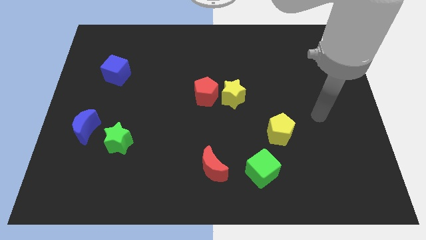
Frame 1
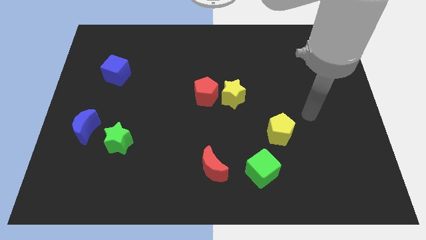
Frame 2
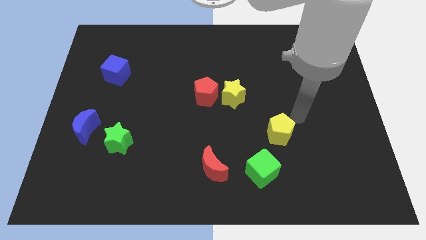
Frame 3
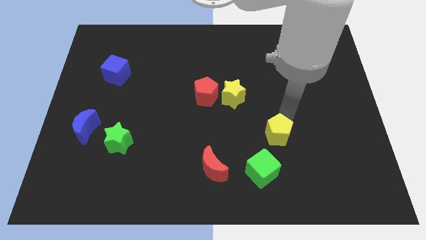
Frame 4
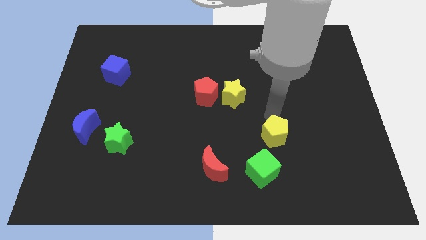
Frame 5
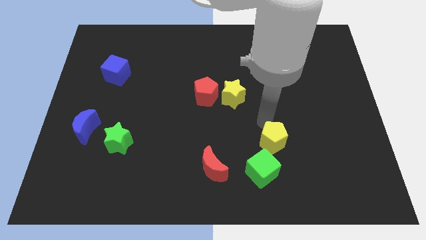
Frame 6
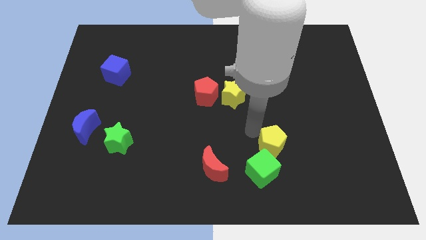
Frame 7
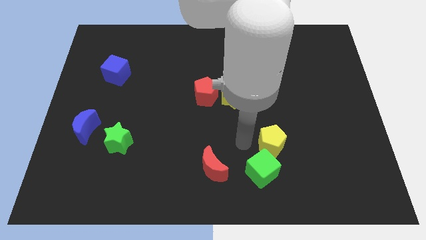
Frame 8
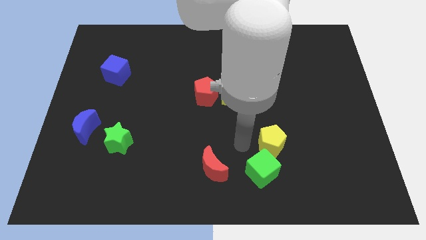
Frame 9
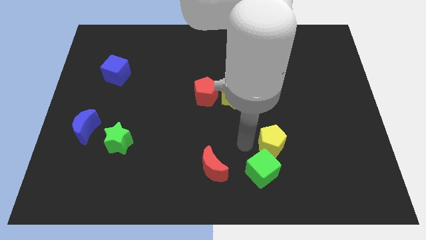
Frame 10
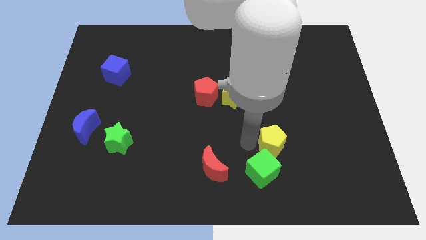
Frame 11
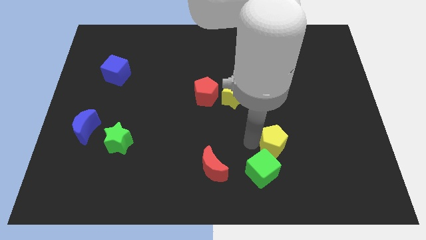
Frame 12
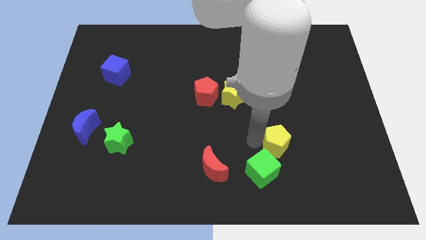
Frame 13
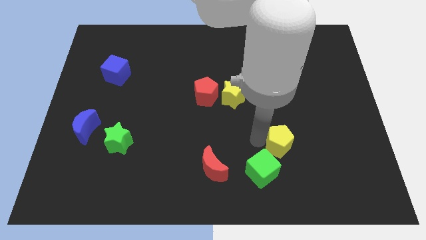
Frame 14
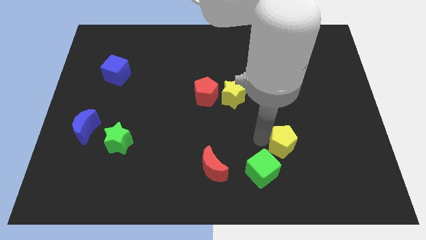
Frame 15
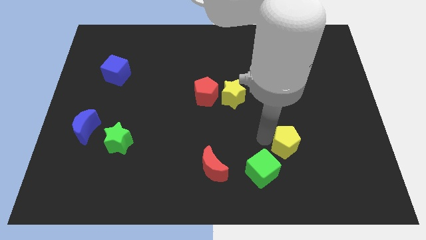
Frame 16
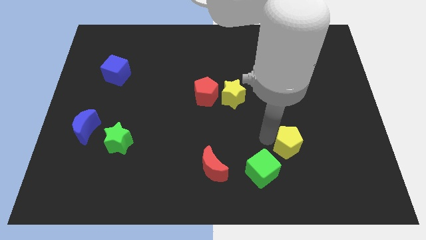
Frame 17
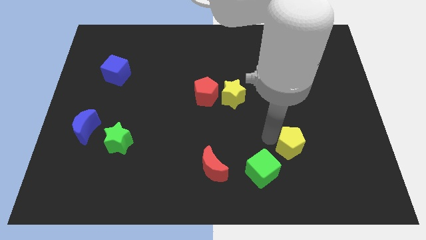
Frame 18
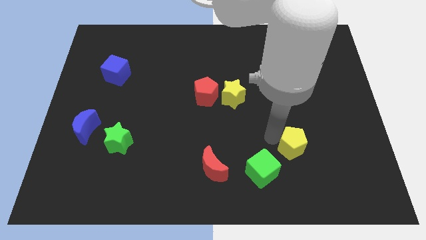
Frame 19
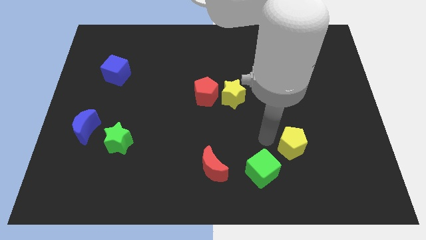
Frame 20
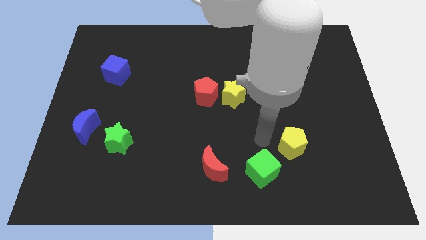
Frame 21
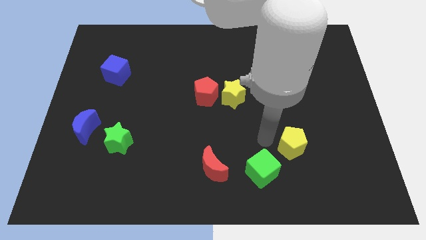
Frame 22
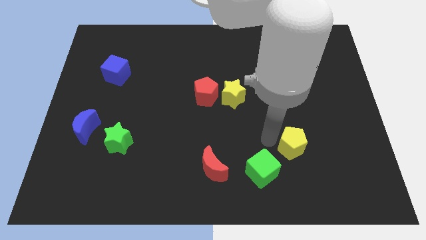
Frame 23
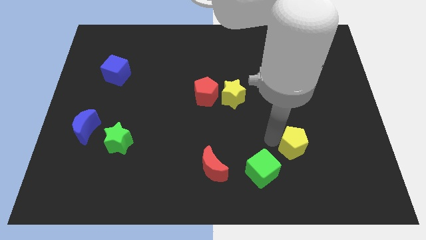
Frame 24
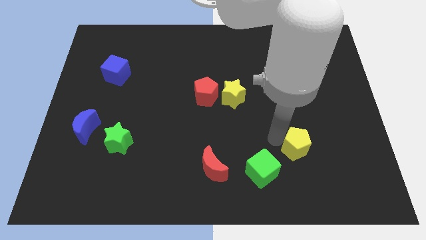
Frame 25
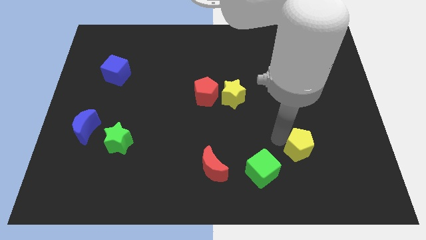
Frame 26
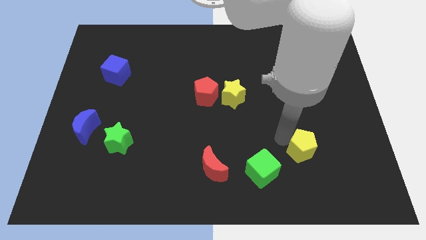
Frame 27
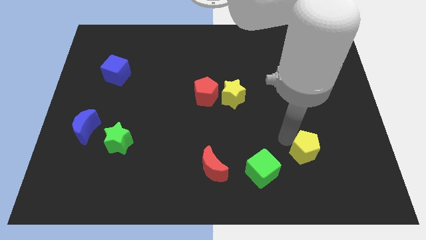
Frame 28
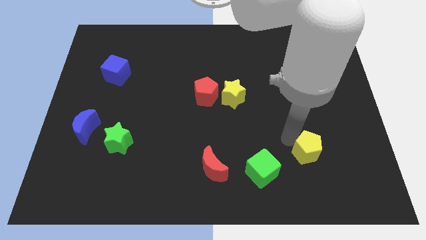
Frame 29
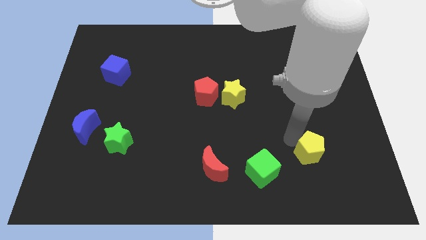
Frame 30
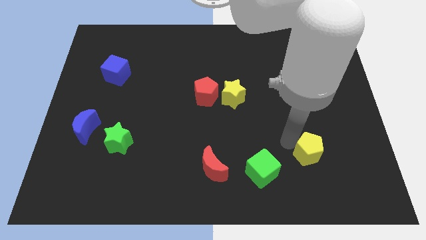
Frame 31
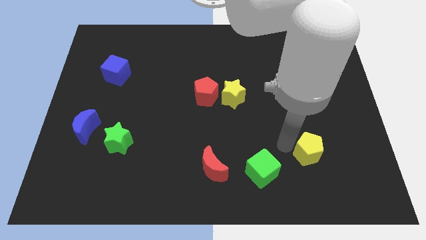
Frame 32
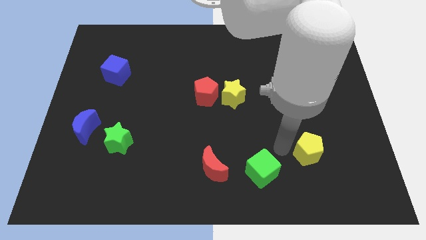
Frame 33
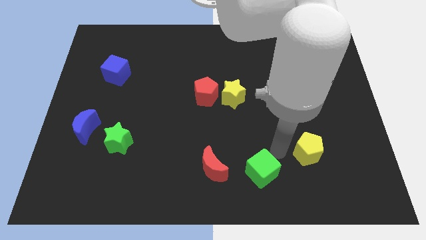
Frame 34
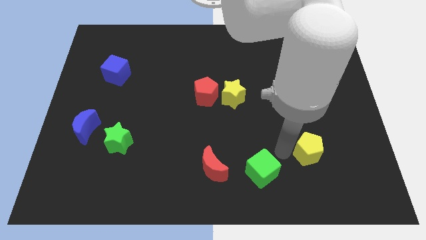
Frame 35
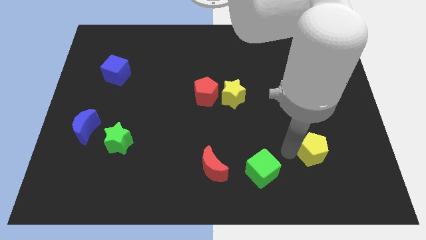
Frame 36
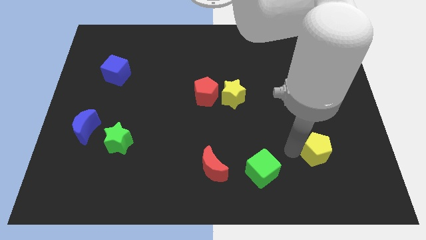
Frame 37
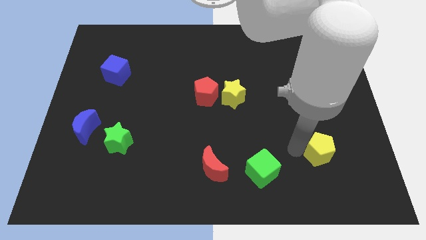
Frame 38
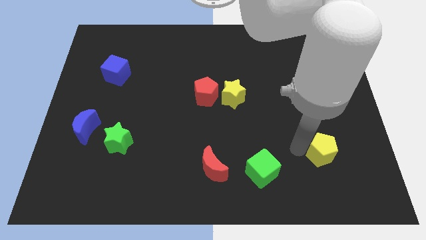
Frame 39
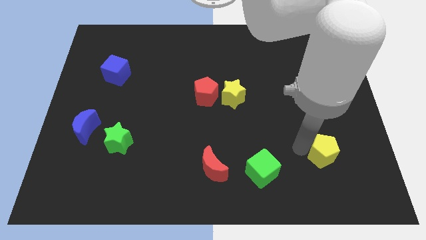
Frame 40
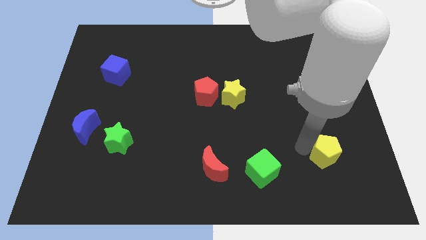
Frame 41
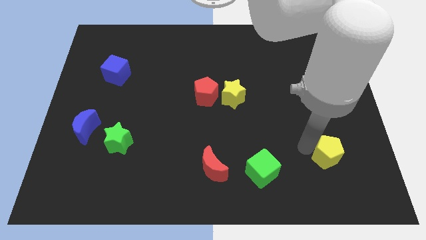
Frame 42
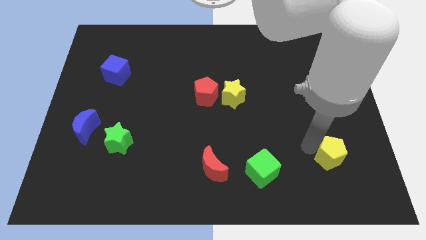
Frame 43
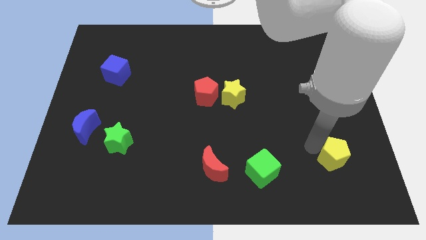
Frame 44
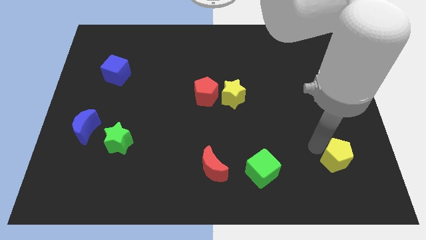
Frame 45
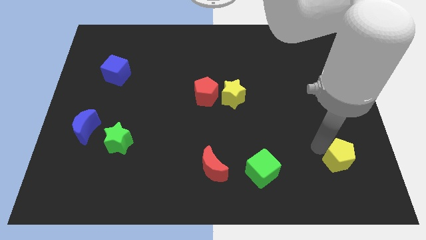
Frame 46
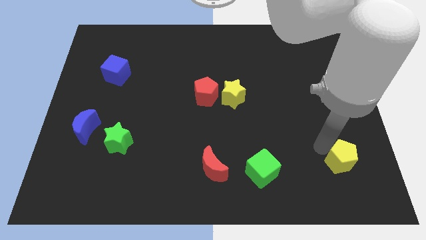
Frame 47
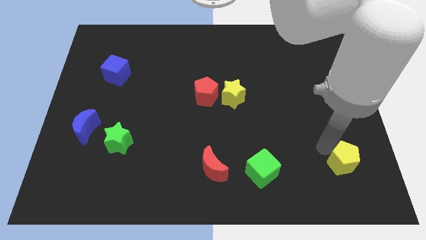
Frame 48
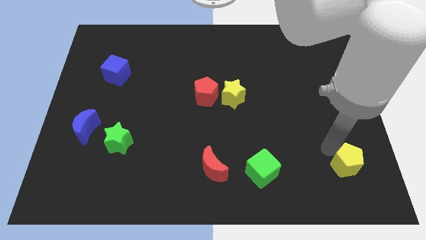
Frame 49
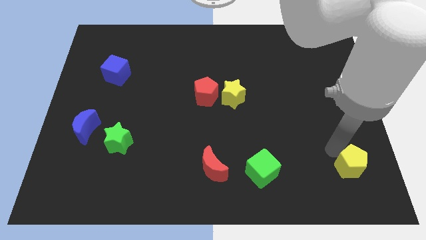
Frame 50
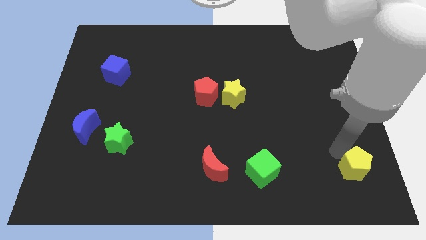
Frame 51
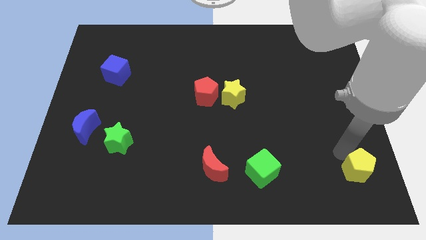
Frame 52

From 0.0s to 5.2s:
put the yellow pentagon to the bottom right corner

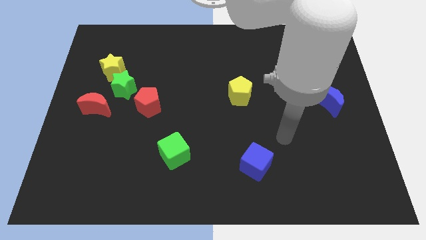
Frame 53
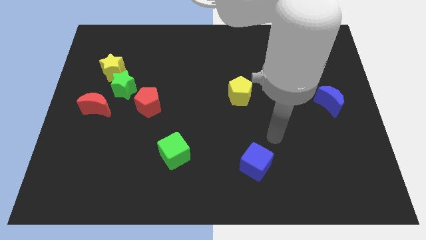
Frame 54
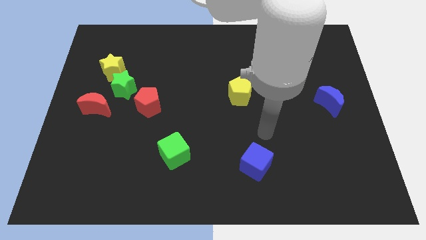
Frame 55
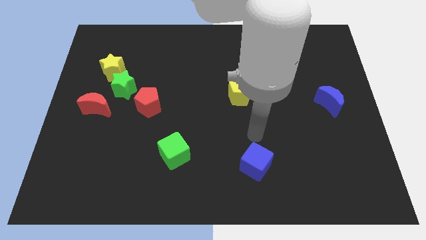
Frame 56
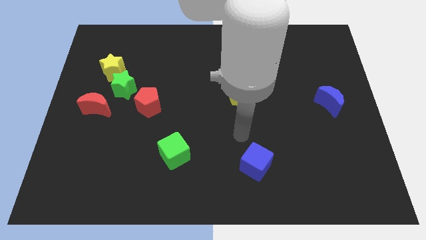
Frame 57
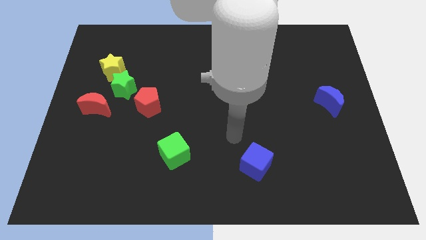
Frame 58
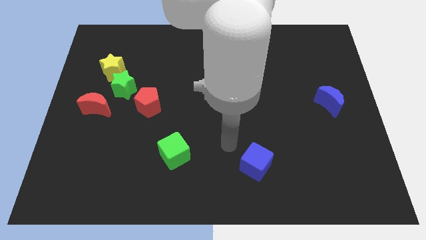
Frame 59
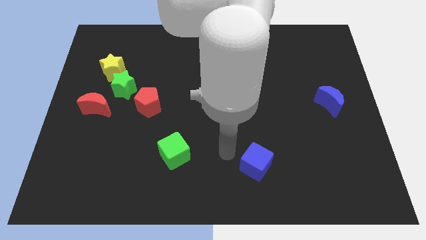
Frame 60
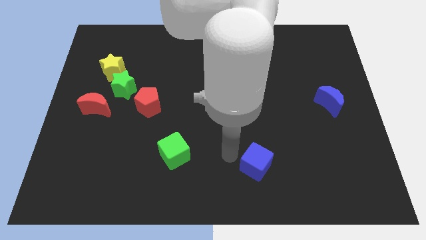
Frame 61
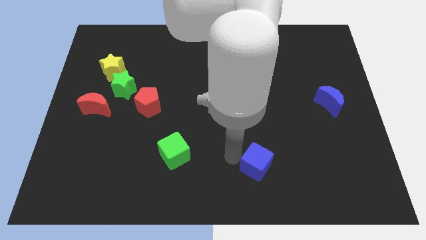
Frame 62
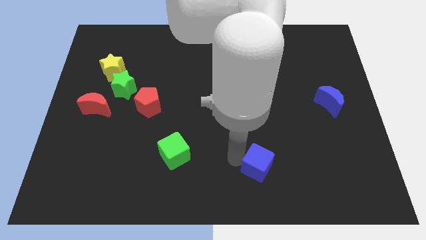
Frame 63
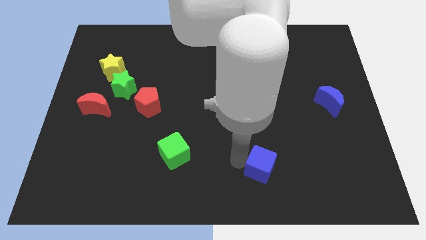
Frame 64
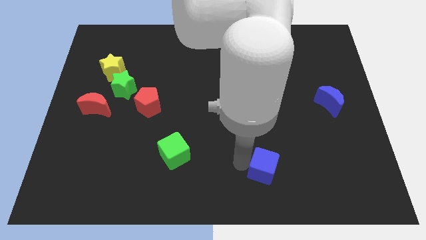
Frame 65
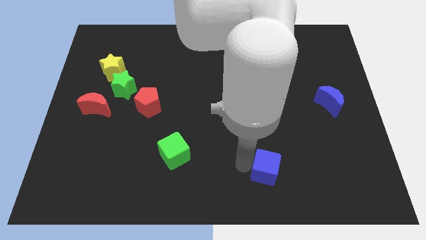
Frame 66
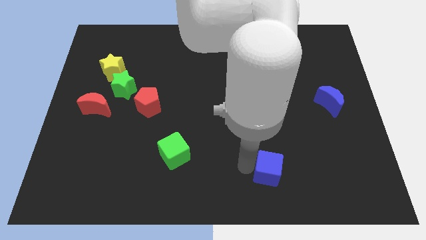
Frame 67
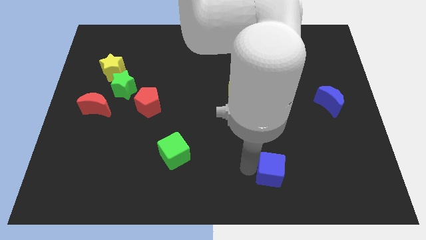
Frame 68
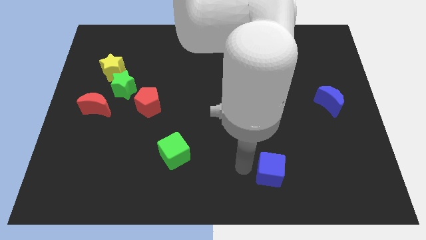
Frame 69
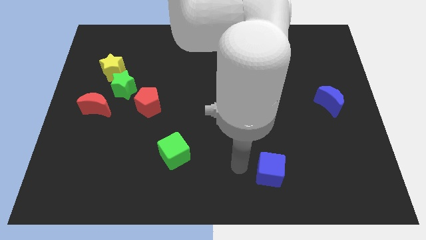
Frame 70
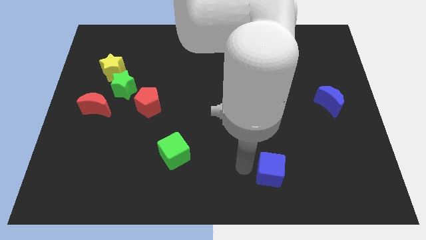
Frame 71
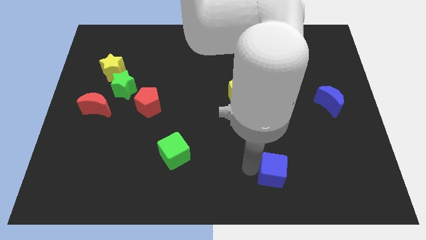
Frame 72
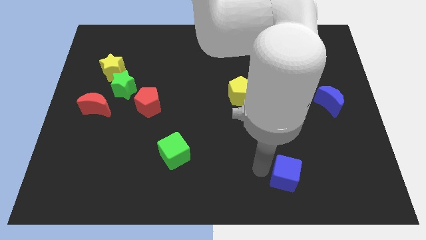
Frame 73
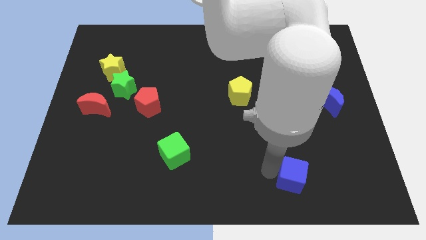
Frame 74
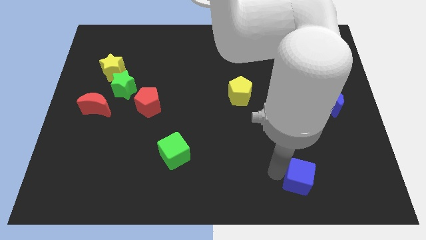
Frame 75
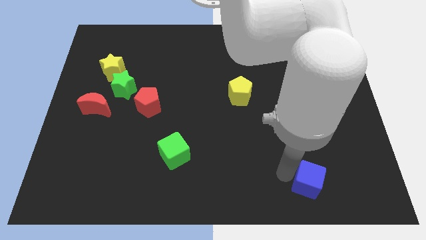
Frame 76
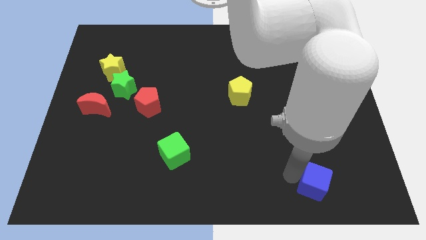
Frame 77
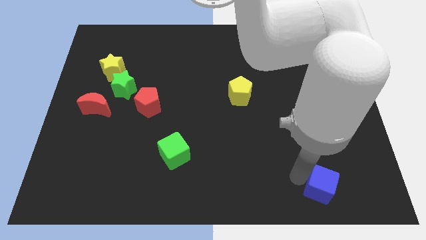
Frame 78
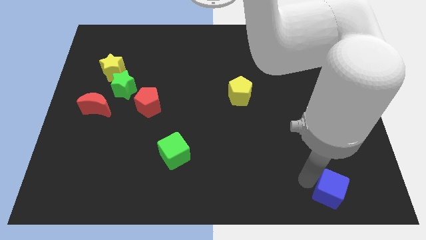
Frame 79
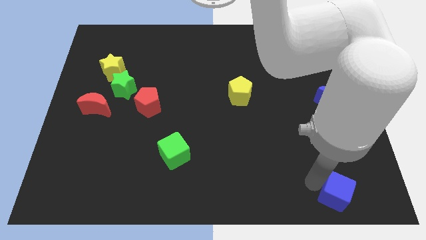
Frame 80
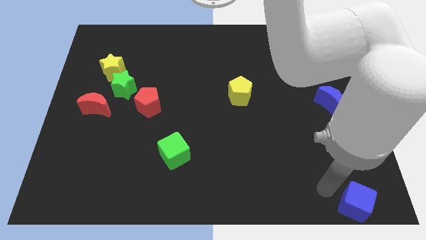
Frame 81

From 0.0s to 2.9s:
slide the blue cube to the bottom right corner
